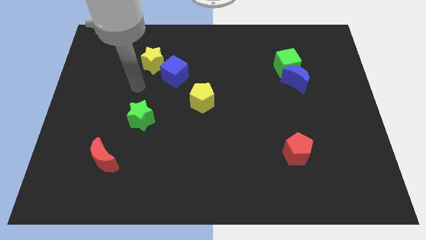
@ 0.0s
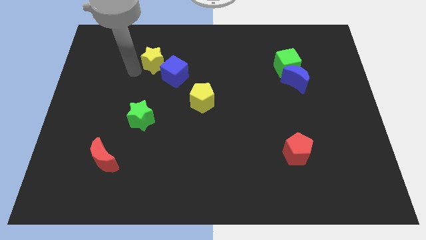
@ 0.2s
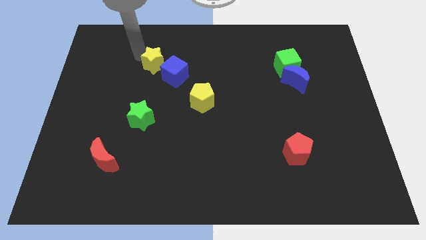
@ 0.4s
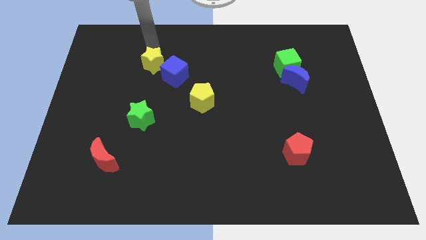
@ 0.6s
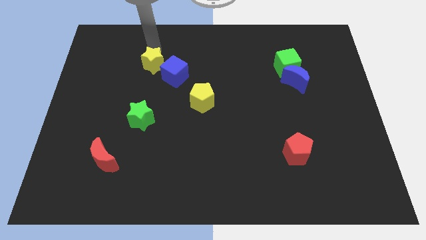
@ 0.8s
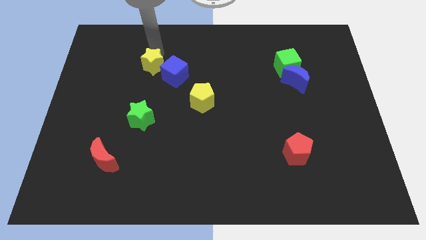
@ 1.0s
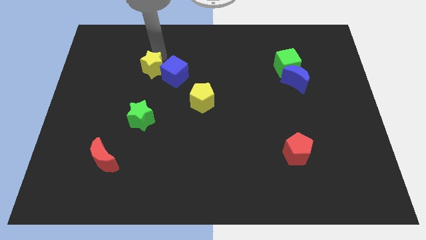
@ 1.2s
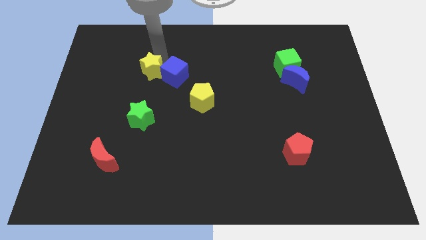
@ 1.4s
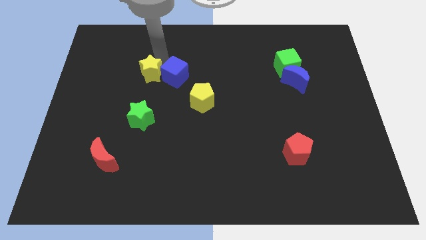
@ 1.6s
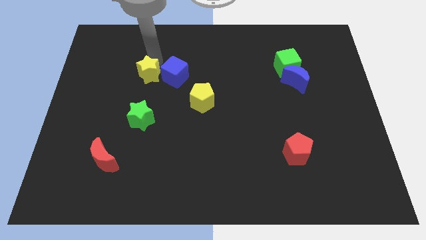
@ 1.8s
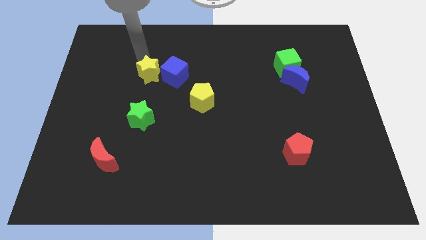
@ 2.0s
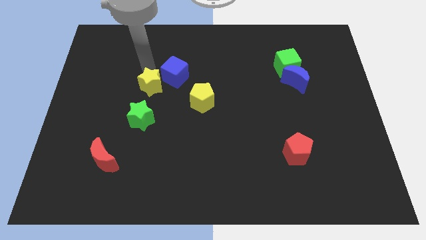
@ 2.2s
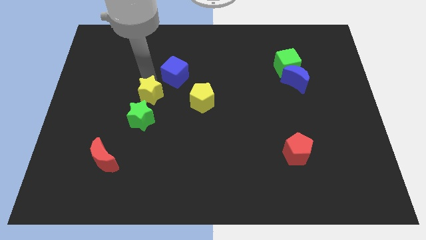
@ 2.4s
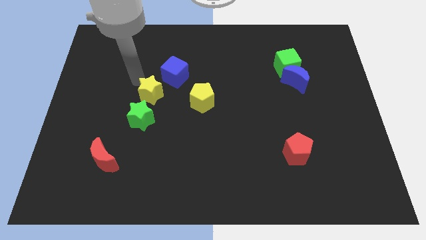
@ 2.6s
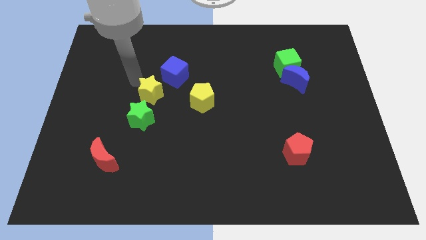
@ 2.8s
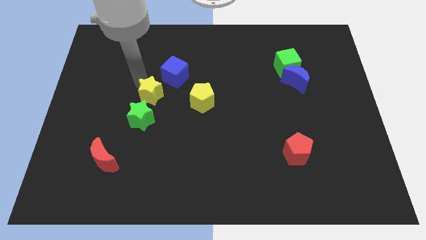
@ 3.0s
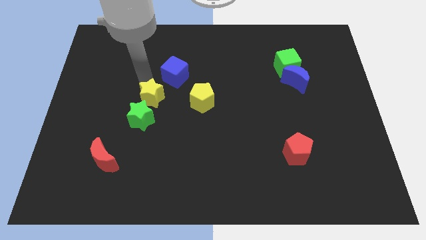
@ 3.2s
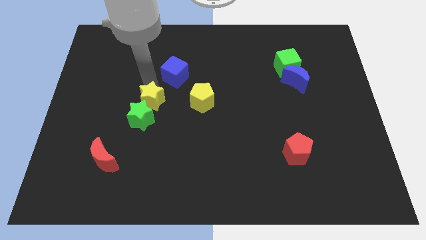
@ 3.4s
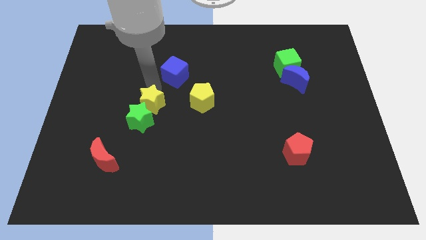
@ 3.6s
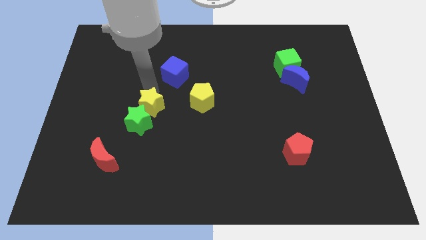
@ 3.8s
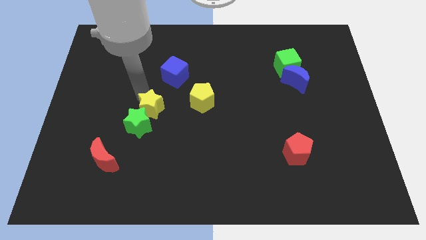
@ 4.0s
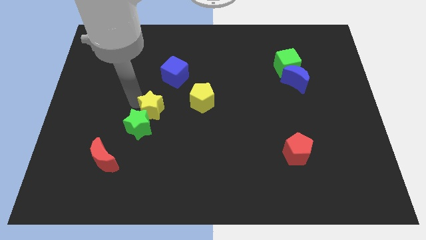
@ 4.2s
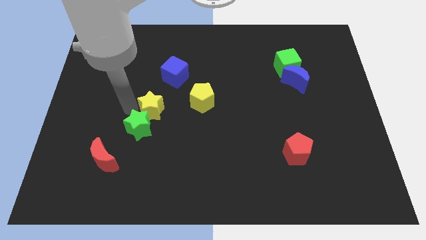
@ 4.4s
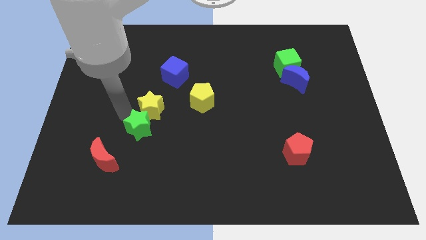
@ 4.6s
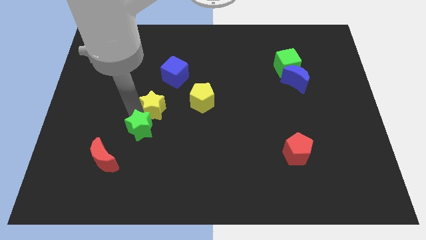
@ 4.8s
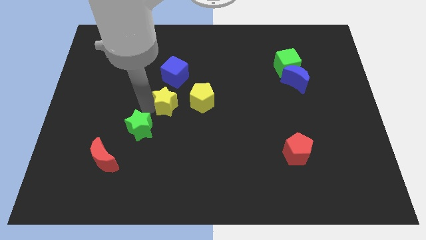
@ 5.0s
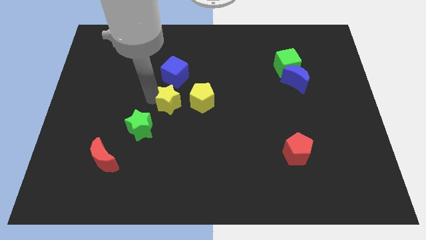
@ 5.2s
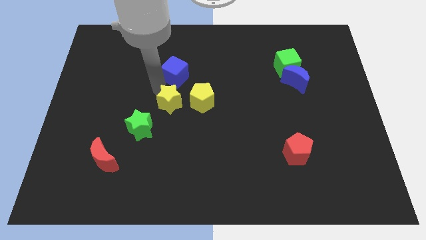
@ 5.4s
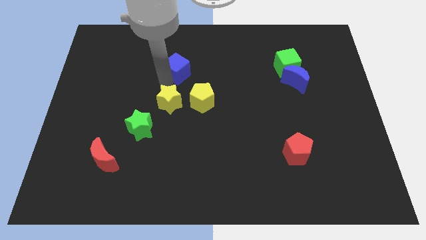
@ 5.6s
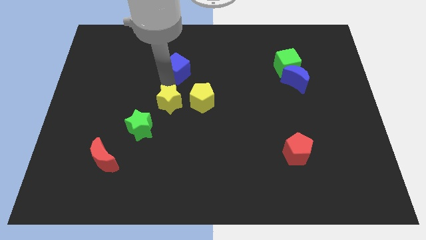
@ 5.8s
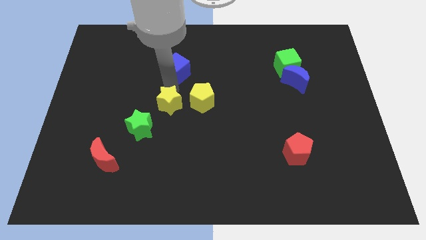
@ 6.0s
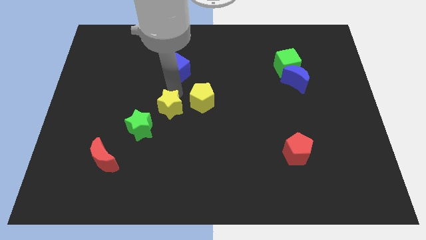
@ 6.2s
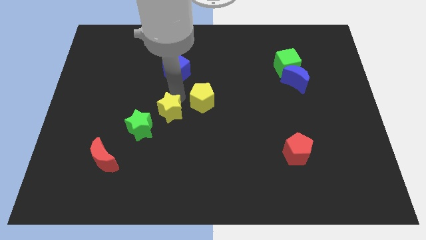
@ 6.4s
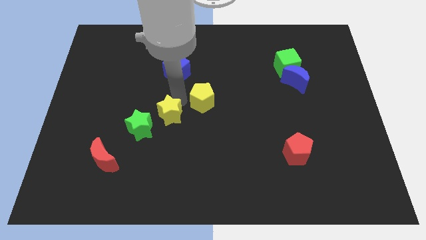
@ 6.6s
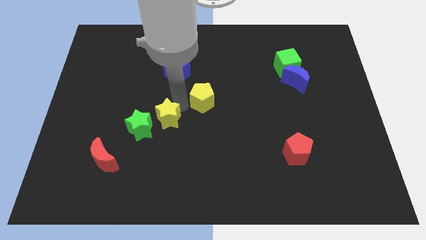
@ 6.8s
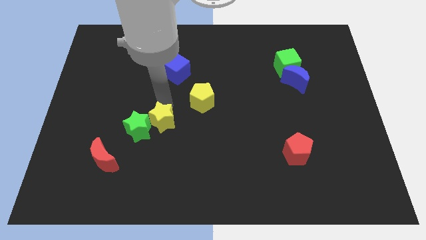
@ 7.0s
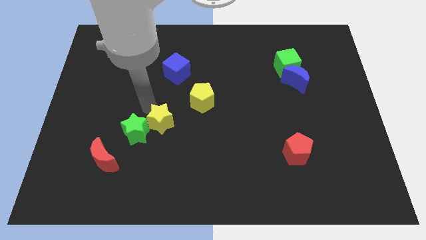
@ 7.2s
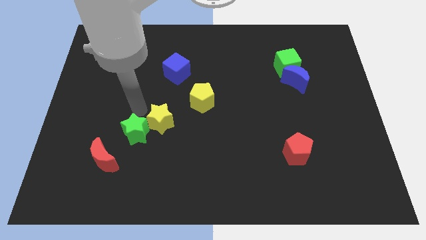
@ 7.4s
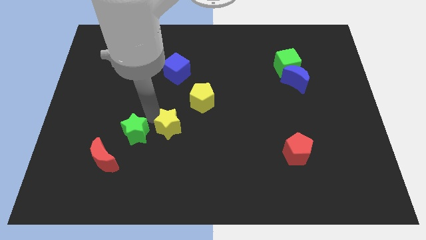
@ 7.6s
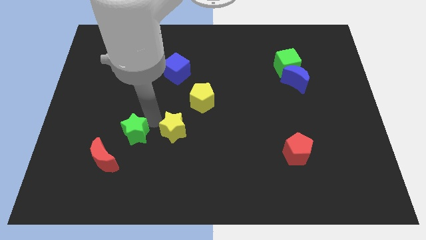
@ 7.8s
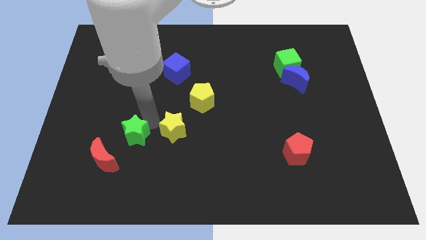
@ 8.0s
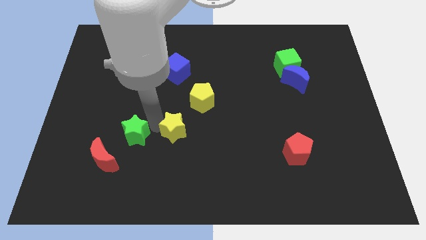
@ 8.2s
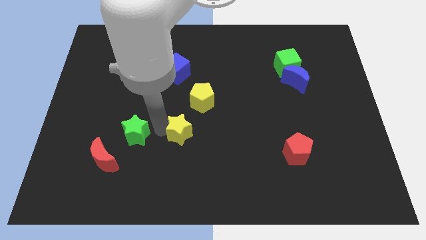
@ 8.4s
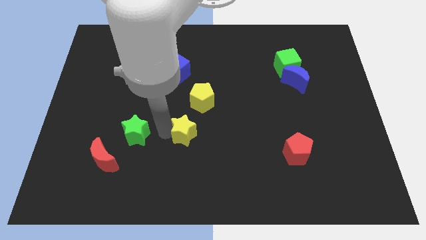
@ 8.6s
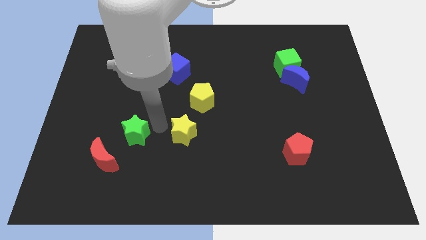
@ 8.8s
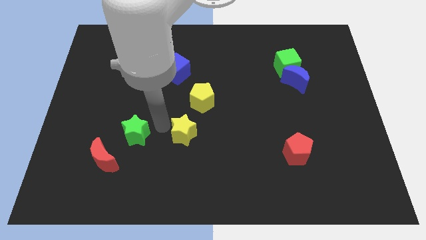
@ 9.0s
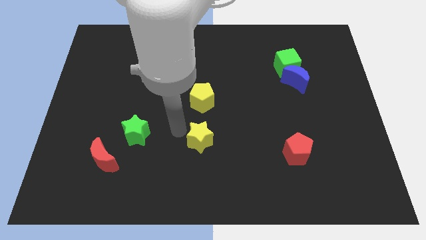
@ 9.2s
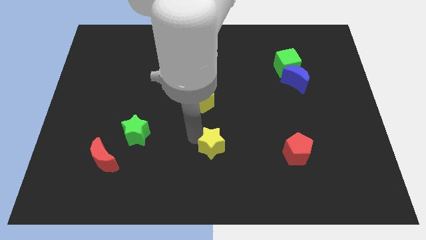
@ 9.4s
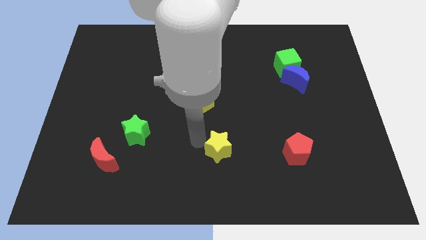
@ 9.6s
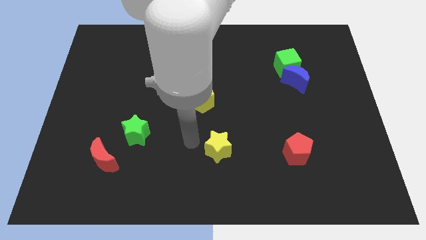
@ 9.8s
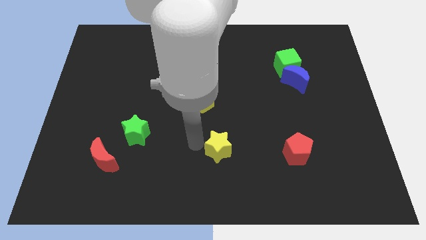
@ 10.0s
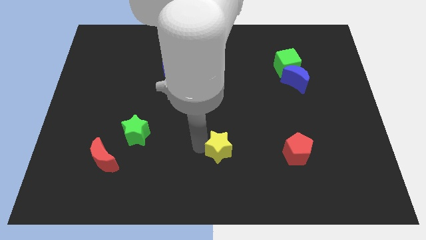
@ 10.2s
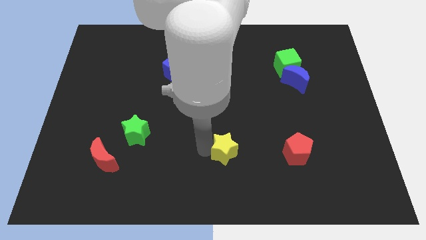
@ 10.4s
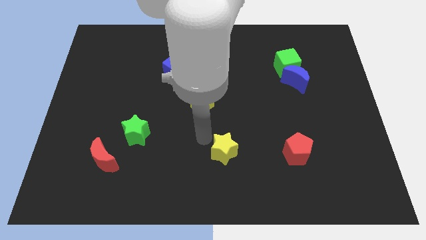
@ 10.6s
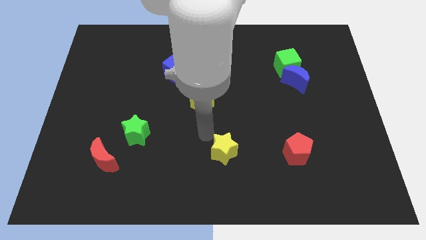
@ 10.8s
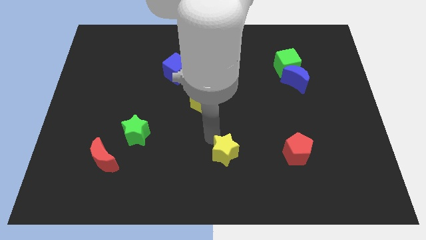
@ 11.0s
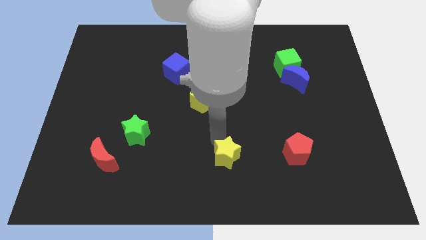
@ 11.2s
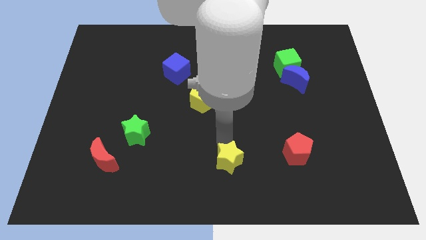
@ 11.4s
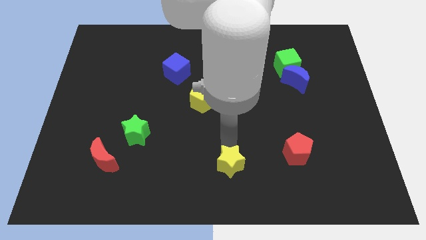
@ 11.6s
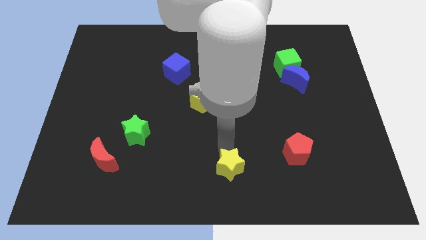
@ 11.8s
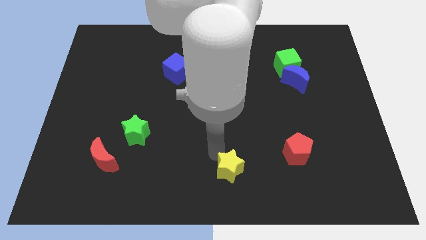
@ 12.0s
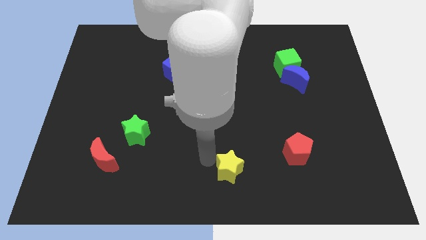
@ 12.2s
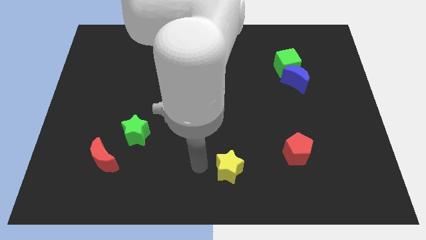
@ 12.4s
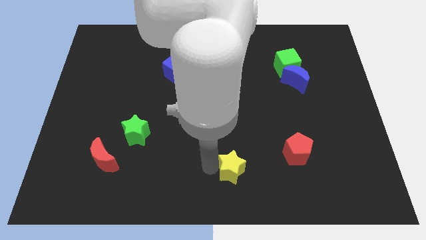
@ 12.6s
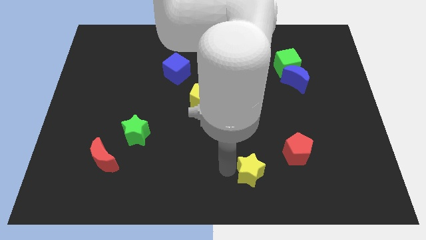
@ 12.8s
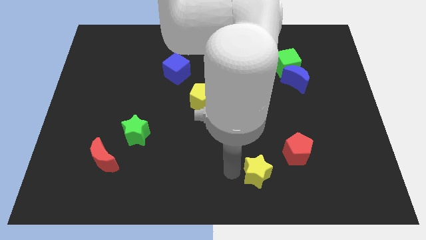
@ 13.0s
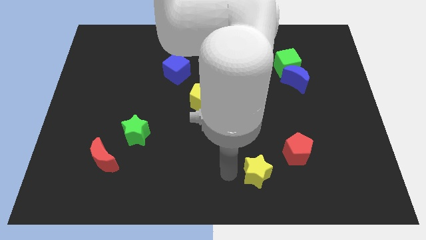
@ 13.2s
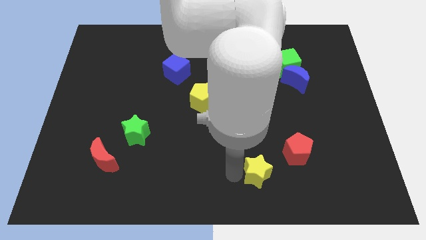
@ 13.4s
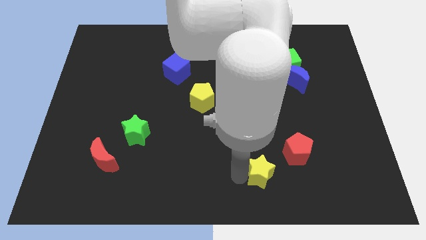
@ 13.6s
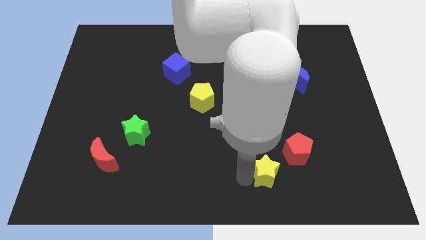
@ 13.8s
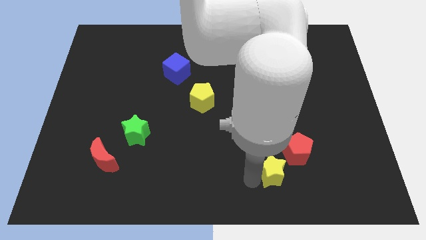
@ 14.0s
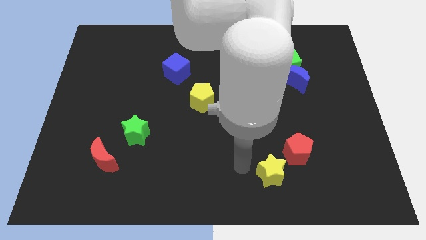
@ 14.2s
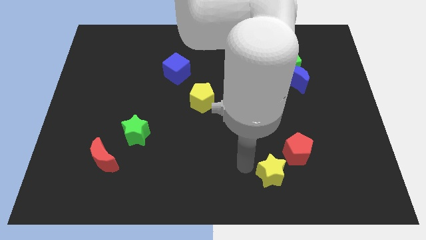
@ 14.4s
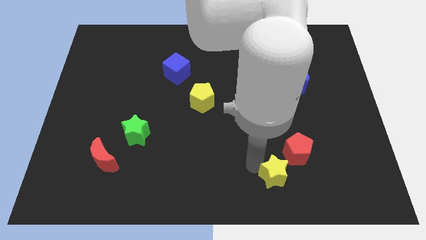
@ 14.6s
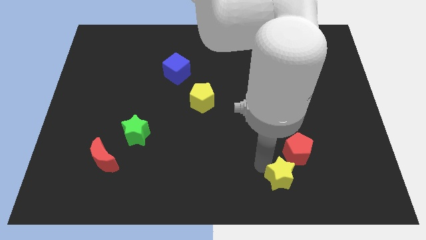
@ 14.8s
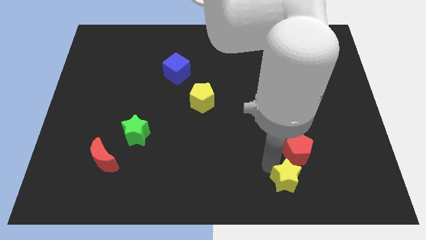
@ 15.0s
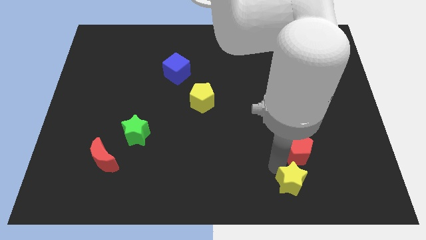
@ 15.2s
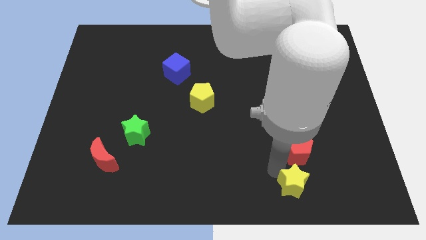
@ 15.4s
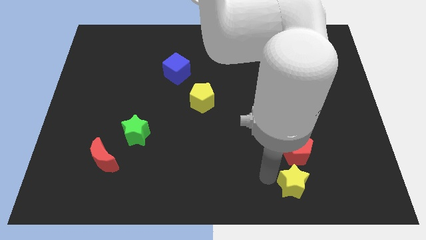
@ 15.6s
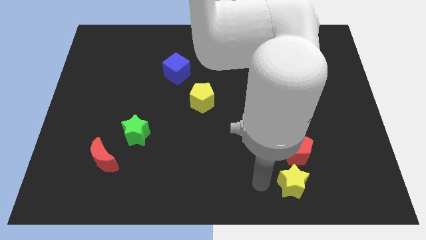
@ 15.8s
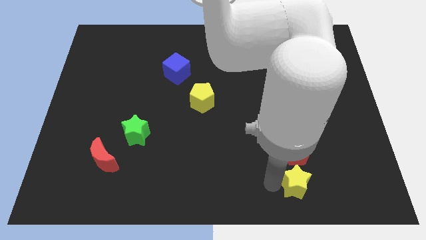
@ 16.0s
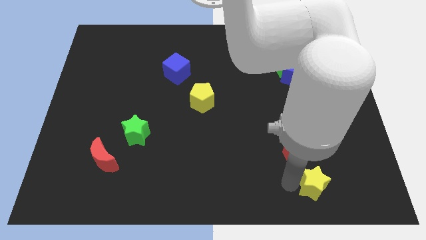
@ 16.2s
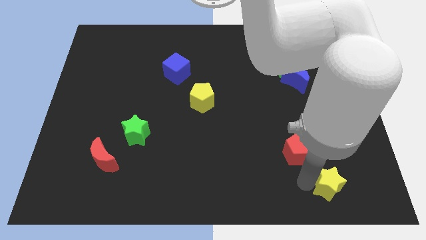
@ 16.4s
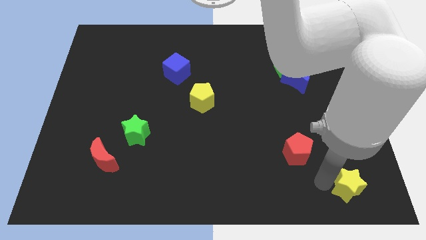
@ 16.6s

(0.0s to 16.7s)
push the yellow star to the bottom right
